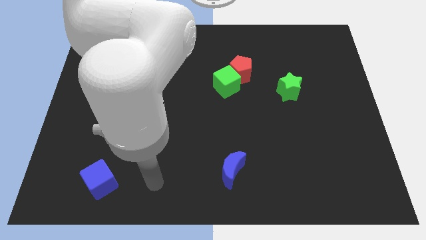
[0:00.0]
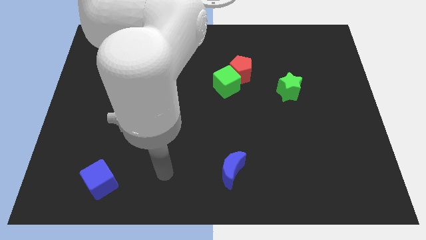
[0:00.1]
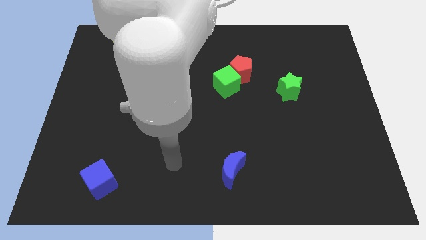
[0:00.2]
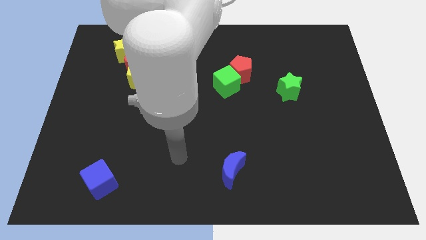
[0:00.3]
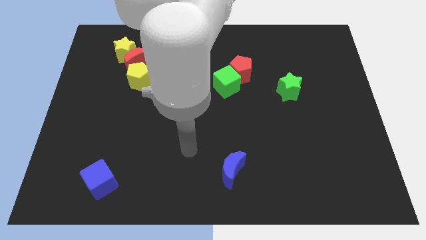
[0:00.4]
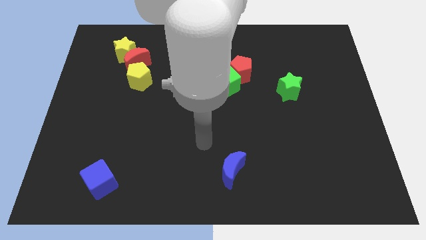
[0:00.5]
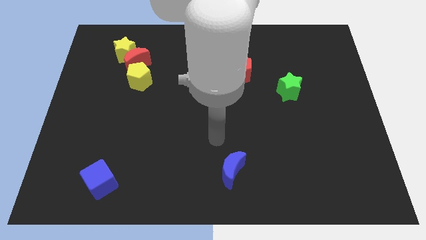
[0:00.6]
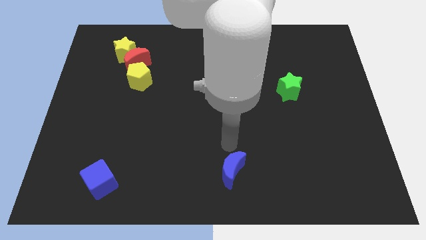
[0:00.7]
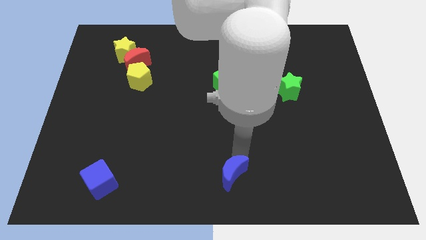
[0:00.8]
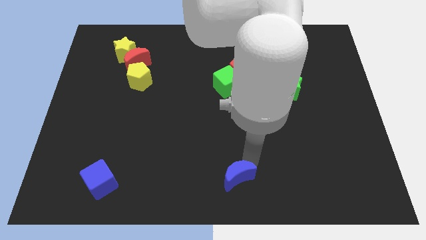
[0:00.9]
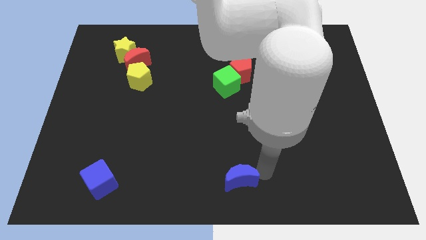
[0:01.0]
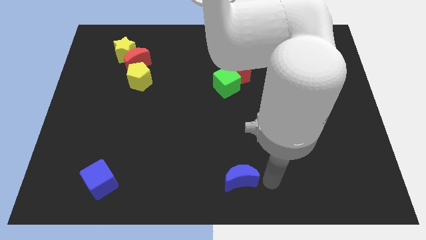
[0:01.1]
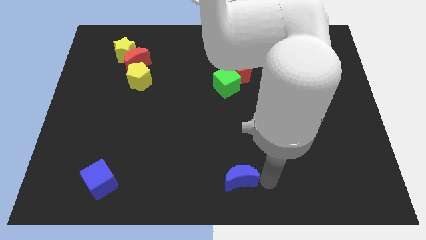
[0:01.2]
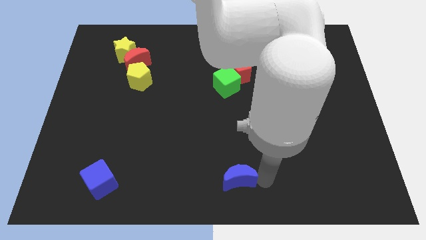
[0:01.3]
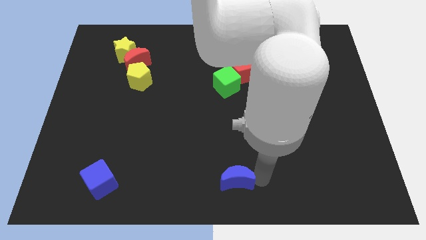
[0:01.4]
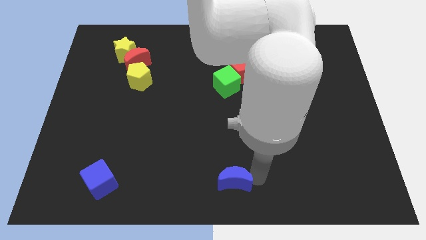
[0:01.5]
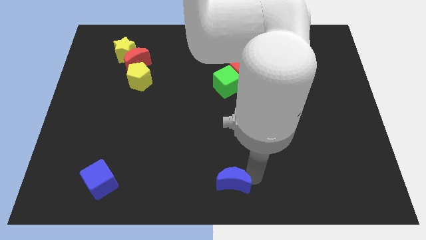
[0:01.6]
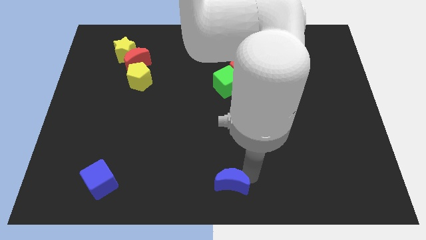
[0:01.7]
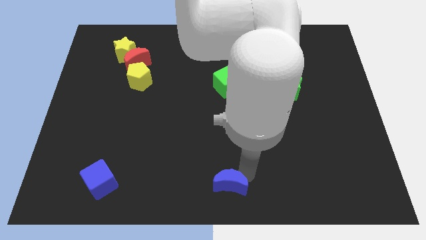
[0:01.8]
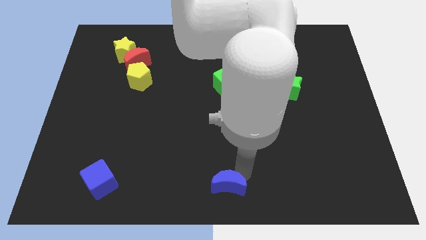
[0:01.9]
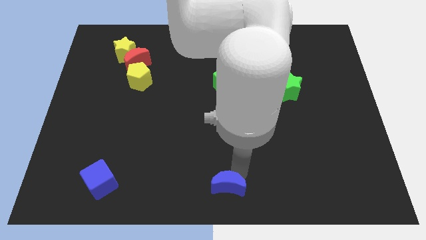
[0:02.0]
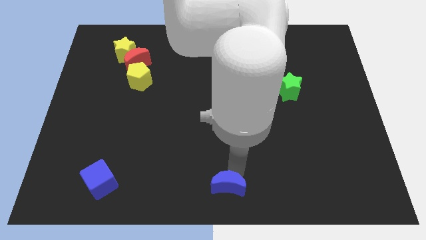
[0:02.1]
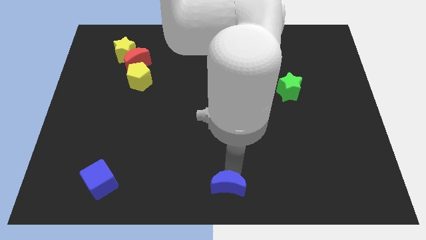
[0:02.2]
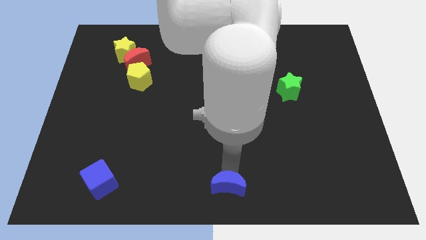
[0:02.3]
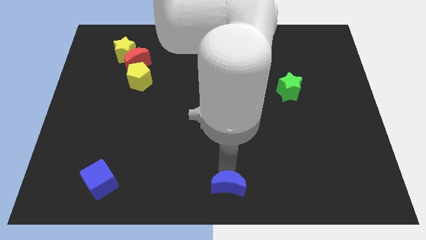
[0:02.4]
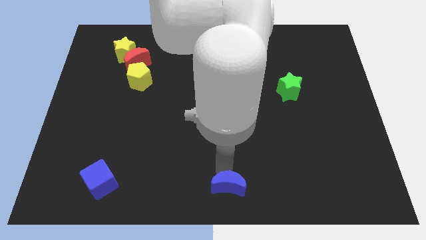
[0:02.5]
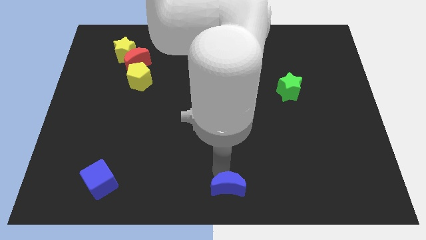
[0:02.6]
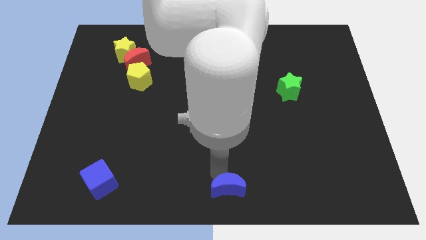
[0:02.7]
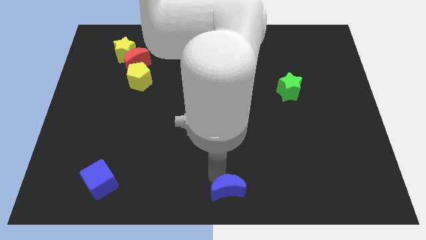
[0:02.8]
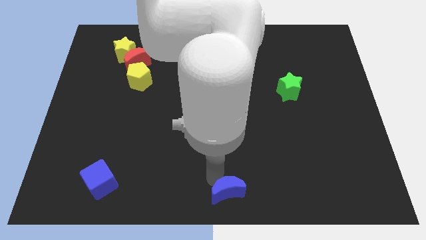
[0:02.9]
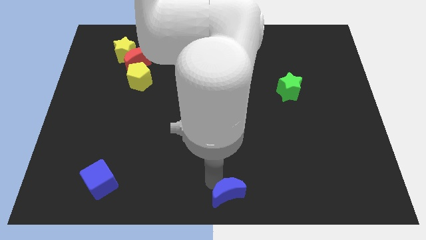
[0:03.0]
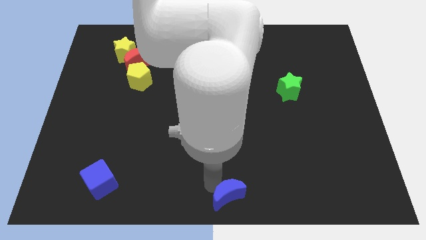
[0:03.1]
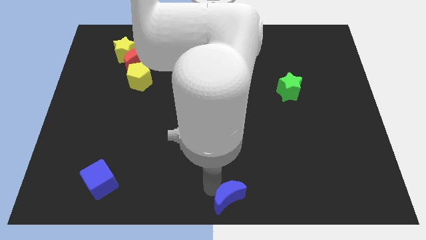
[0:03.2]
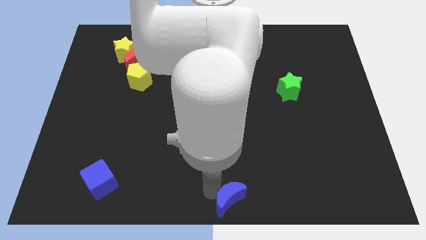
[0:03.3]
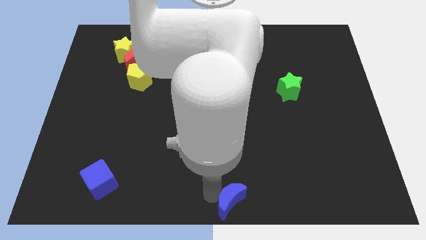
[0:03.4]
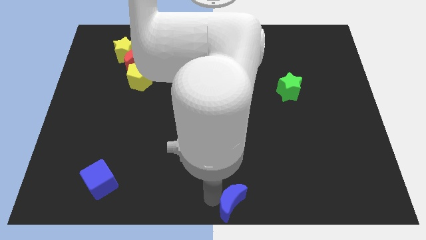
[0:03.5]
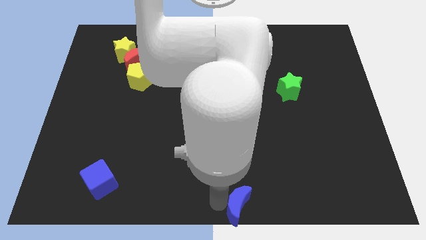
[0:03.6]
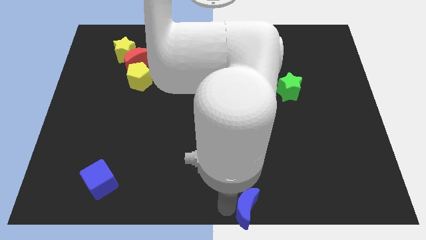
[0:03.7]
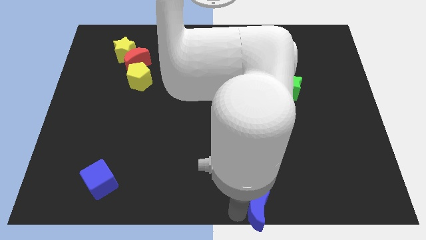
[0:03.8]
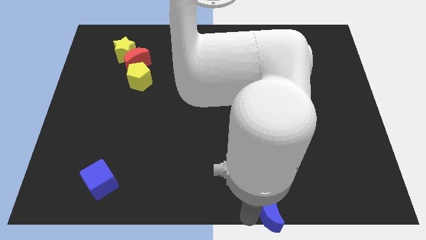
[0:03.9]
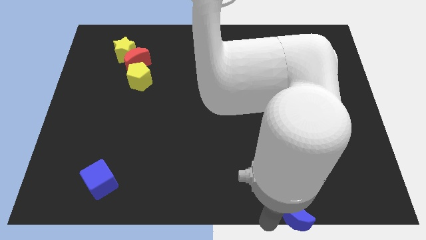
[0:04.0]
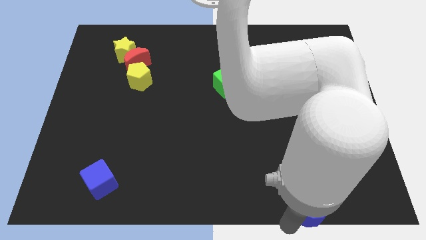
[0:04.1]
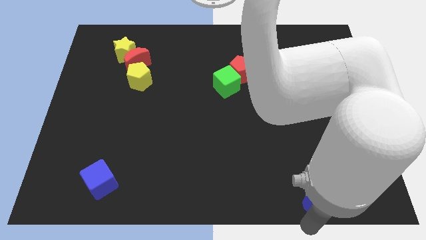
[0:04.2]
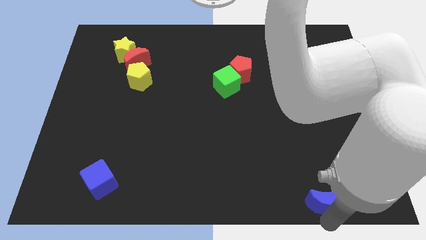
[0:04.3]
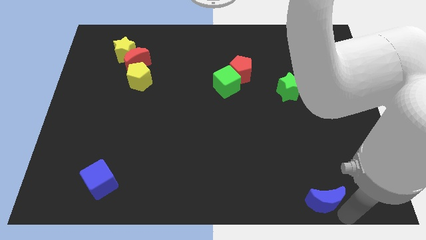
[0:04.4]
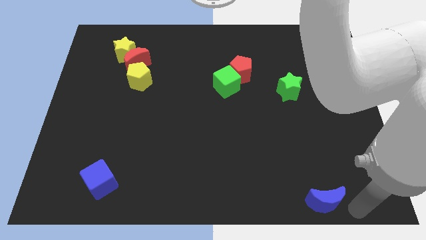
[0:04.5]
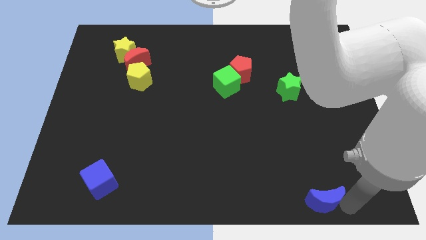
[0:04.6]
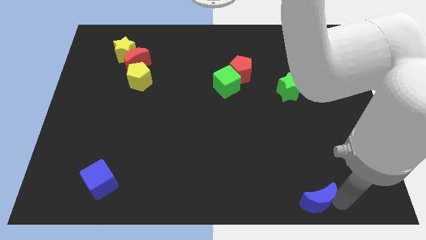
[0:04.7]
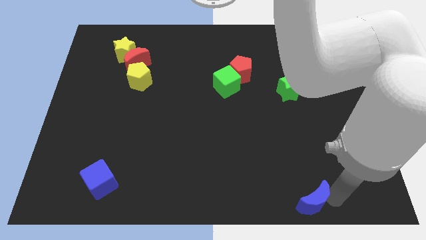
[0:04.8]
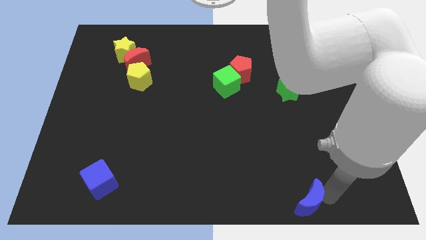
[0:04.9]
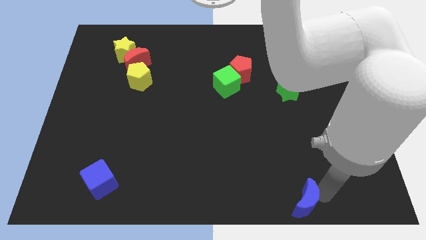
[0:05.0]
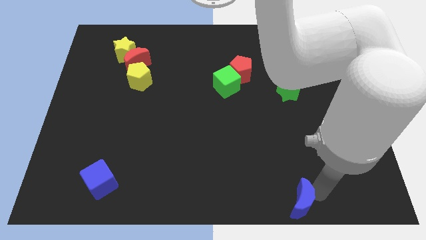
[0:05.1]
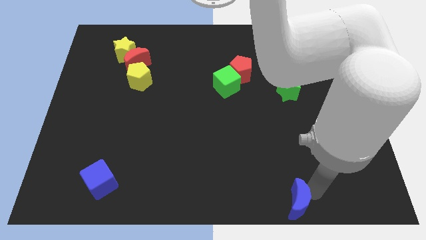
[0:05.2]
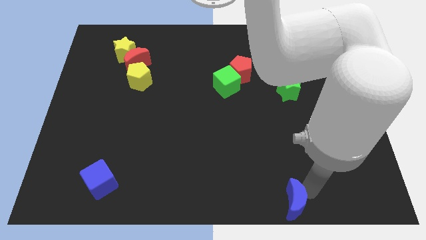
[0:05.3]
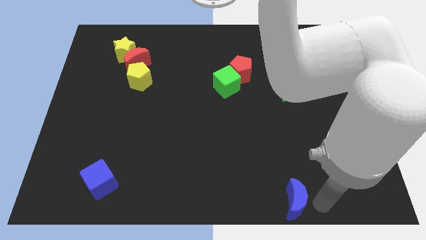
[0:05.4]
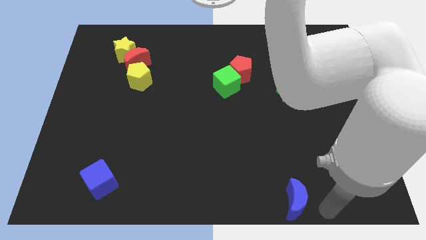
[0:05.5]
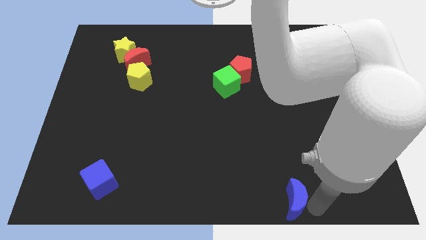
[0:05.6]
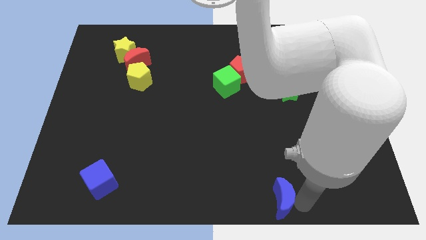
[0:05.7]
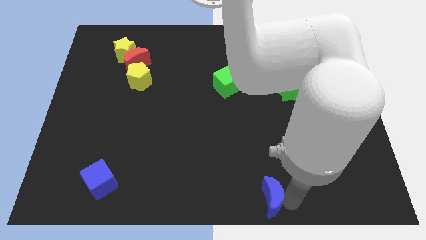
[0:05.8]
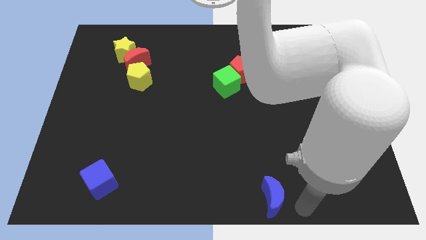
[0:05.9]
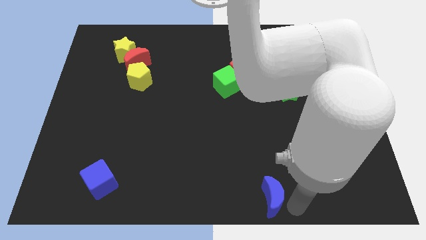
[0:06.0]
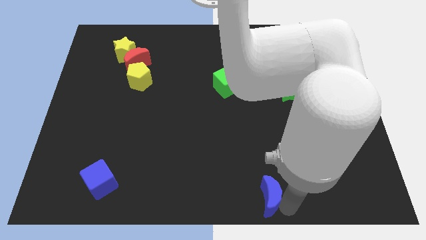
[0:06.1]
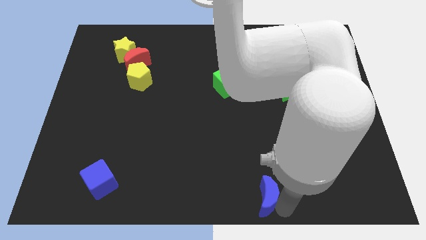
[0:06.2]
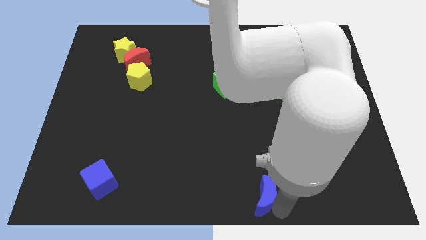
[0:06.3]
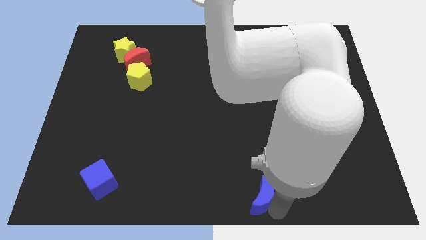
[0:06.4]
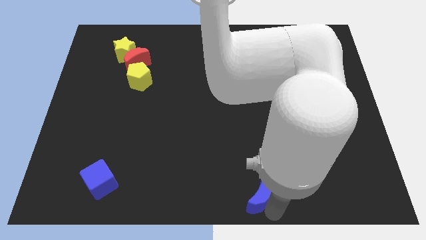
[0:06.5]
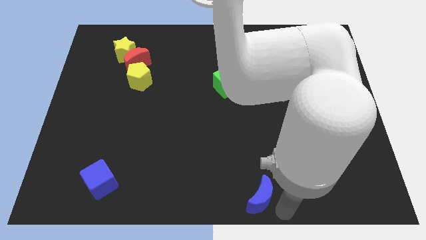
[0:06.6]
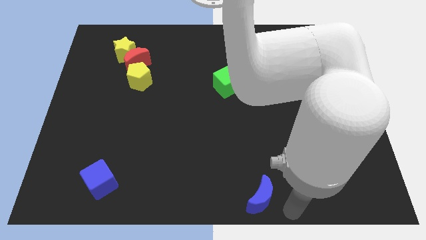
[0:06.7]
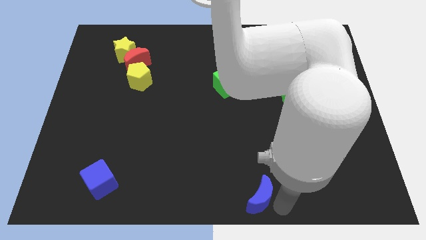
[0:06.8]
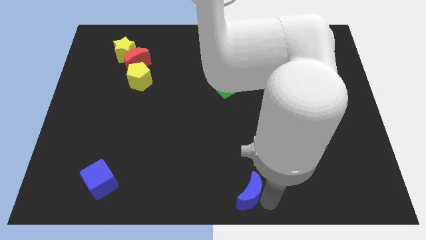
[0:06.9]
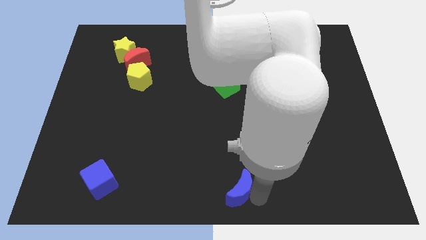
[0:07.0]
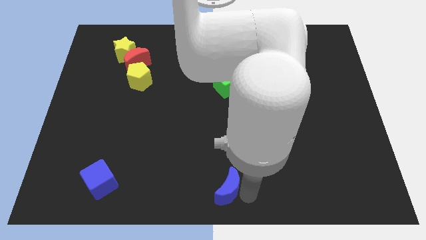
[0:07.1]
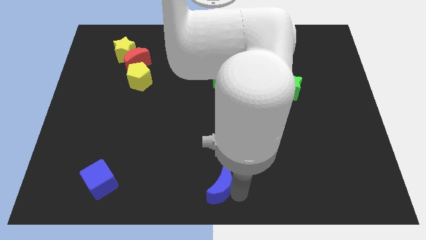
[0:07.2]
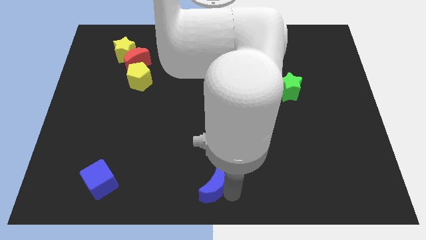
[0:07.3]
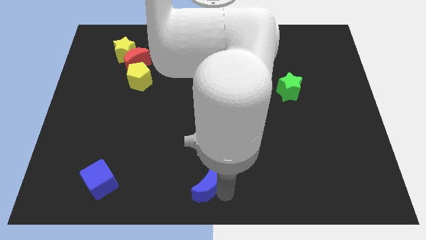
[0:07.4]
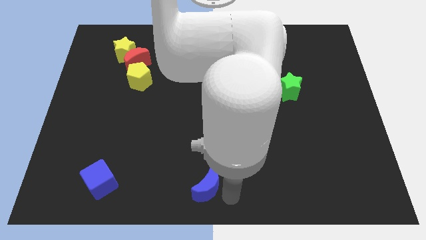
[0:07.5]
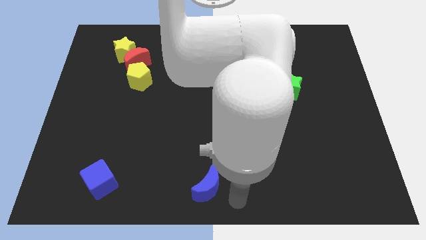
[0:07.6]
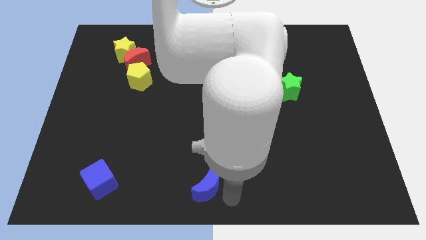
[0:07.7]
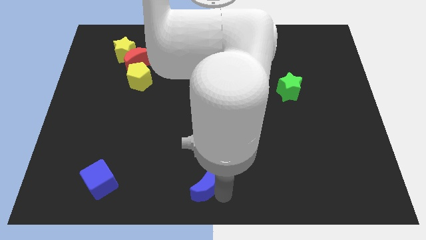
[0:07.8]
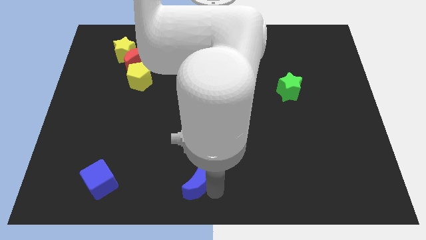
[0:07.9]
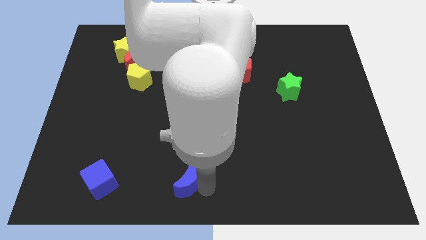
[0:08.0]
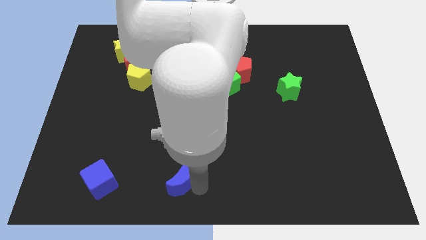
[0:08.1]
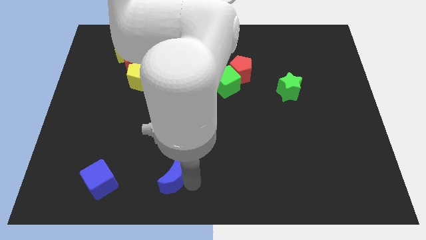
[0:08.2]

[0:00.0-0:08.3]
move the blue moon just right of the blue cube
